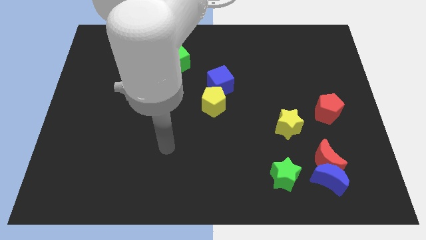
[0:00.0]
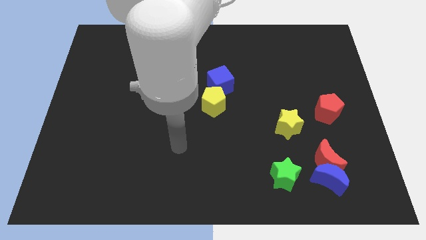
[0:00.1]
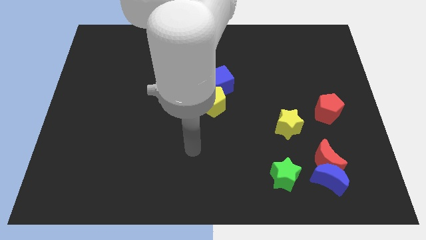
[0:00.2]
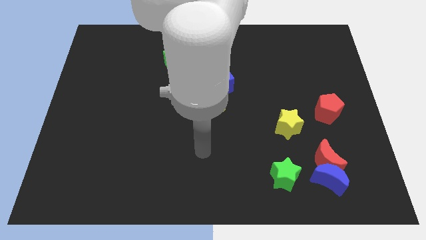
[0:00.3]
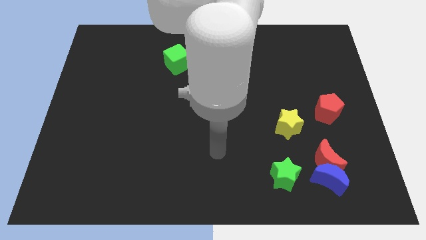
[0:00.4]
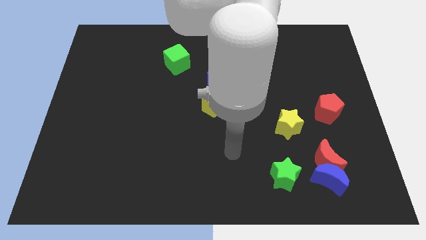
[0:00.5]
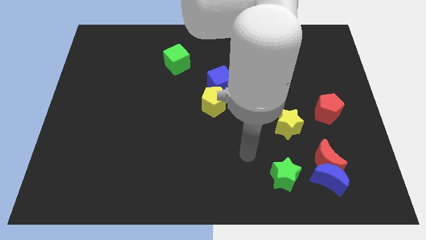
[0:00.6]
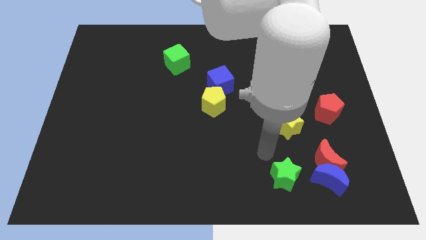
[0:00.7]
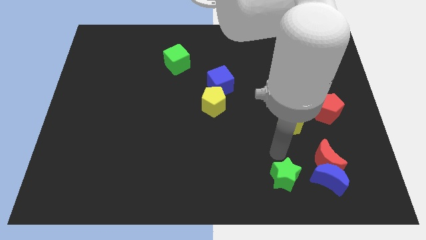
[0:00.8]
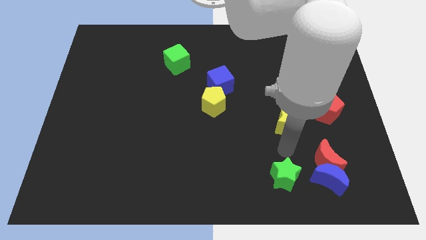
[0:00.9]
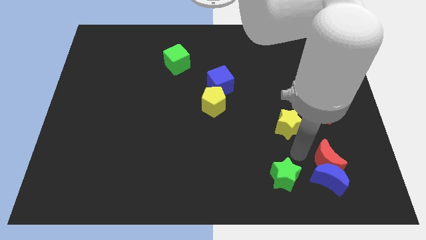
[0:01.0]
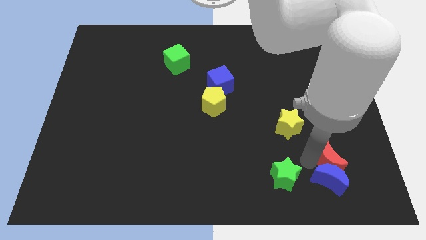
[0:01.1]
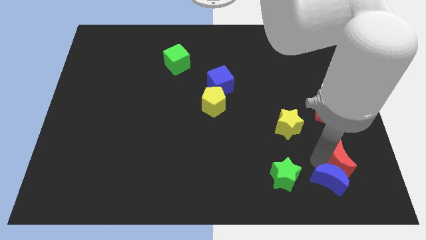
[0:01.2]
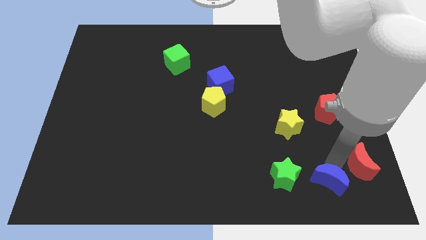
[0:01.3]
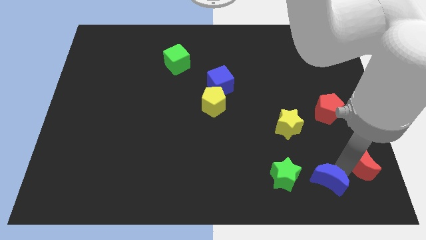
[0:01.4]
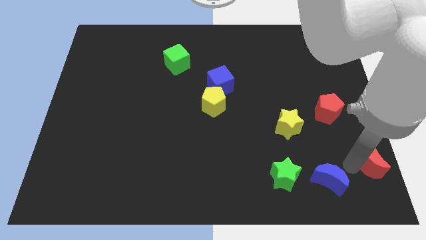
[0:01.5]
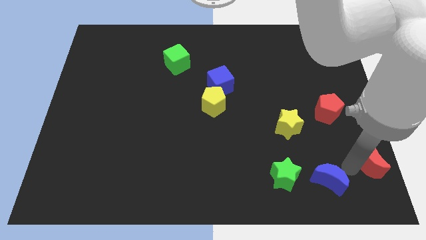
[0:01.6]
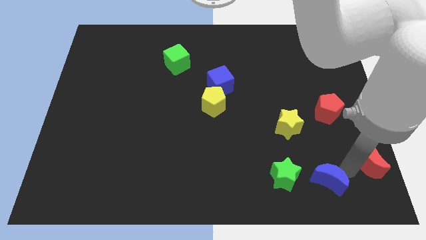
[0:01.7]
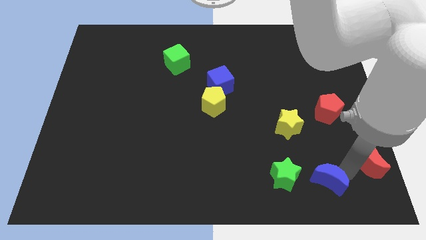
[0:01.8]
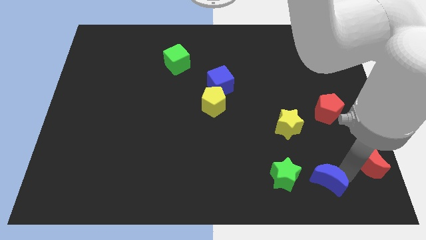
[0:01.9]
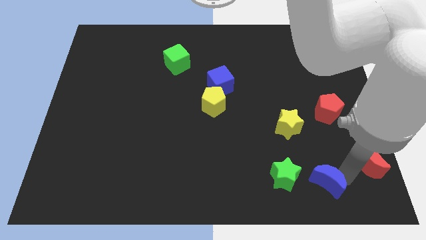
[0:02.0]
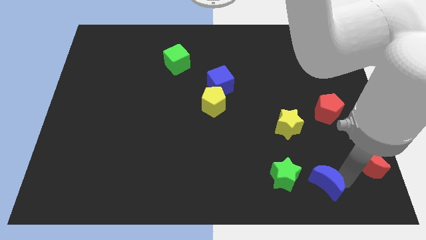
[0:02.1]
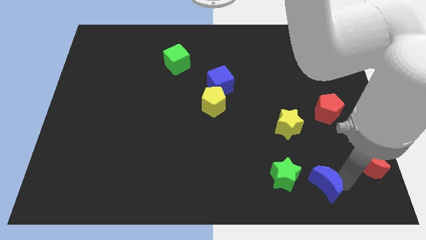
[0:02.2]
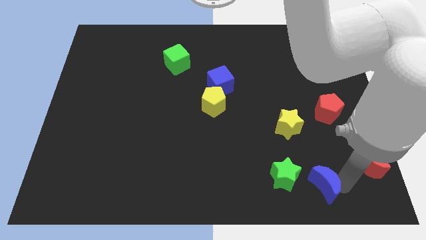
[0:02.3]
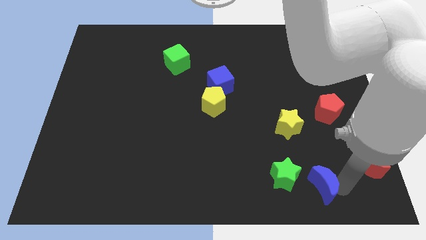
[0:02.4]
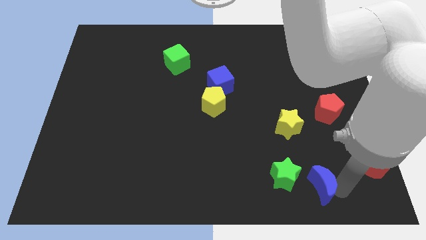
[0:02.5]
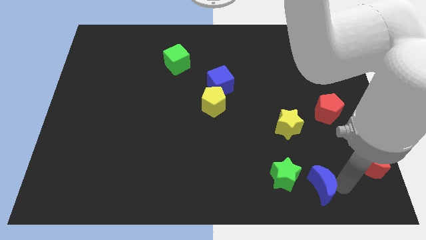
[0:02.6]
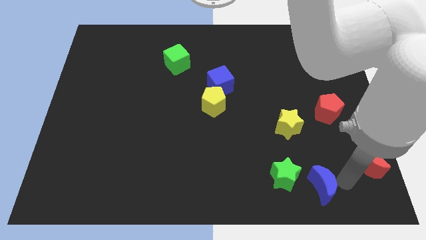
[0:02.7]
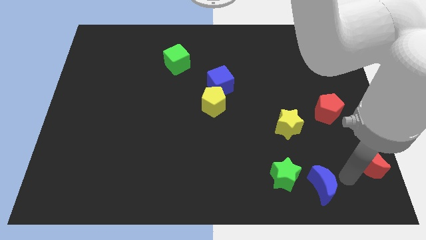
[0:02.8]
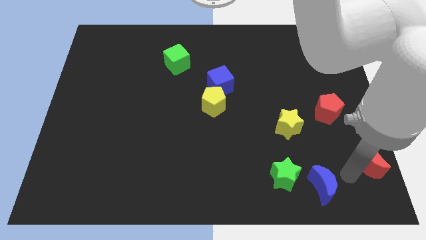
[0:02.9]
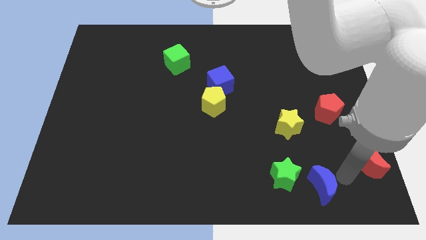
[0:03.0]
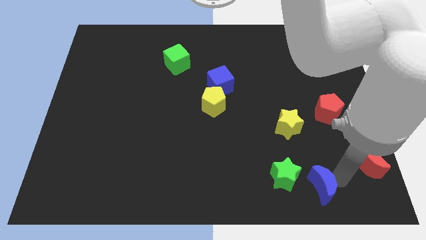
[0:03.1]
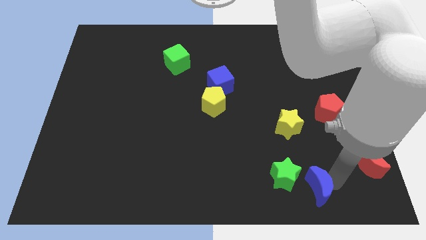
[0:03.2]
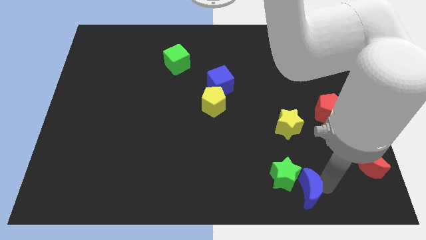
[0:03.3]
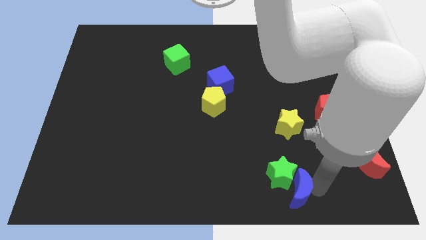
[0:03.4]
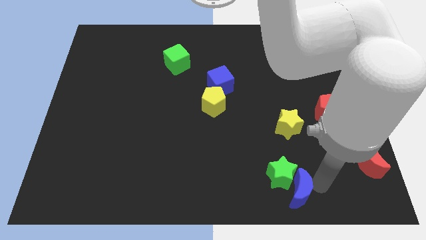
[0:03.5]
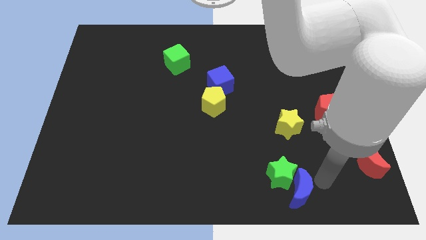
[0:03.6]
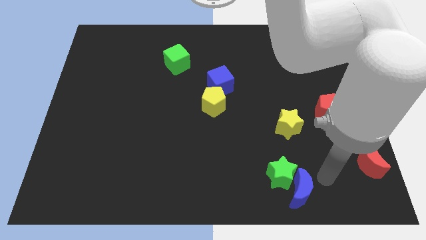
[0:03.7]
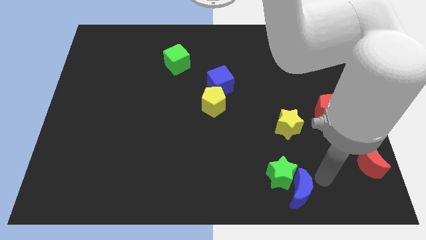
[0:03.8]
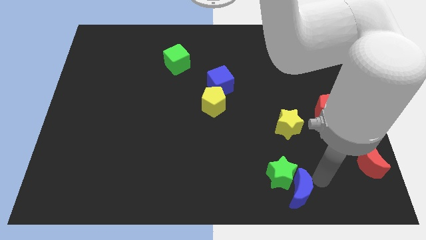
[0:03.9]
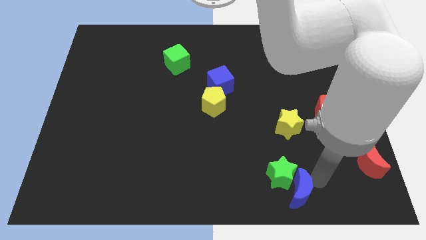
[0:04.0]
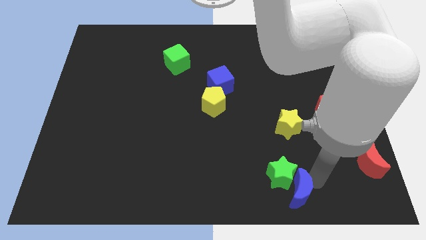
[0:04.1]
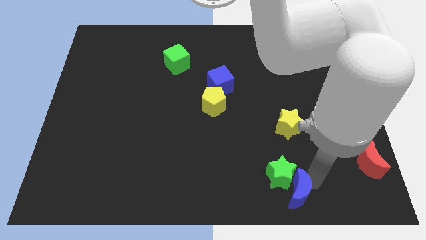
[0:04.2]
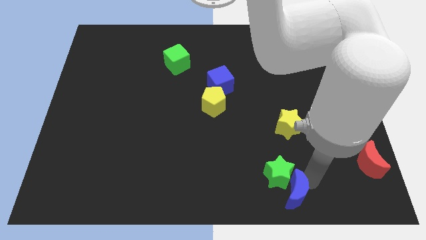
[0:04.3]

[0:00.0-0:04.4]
slightly slide the blue moon to the left

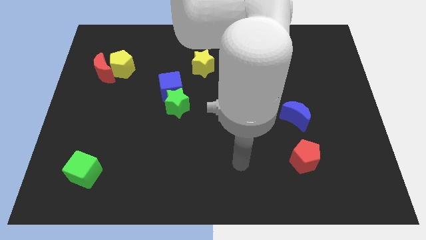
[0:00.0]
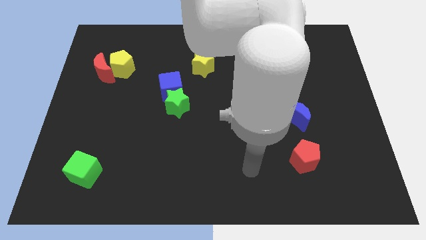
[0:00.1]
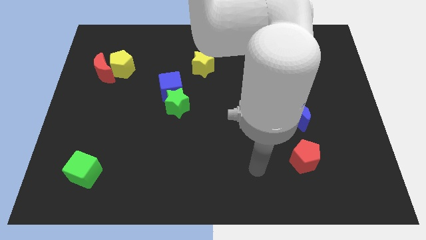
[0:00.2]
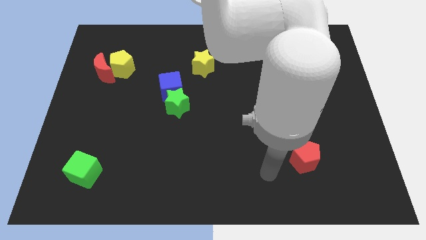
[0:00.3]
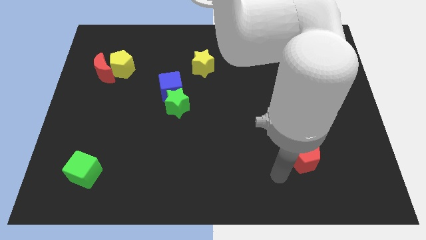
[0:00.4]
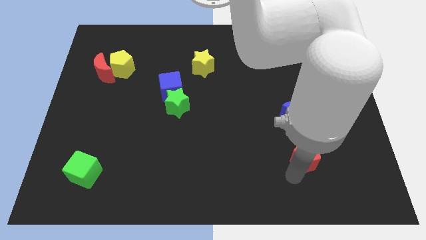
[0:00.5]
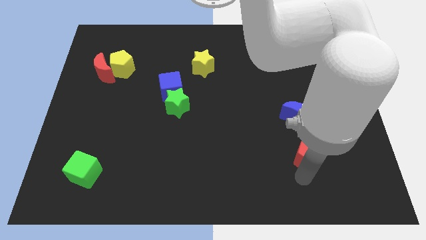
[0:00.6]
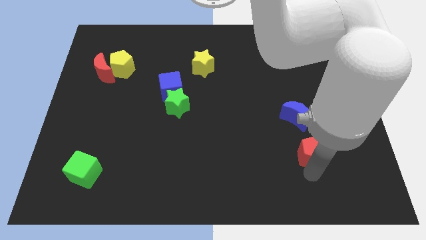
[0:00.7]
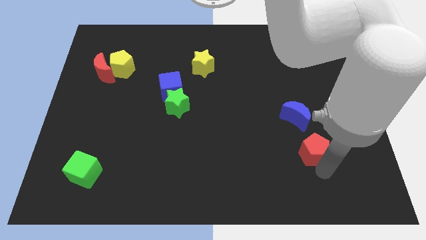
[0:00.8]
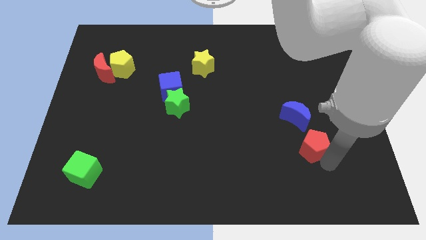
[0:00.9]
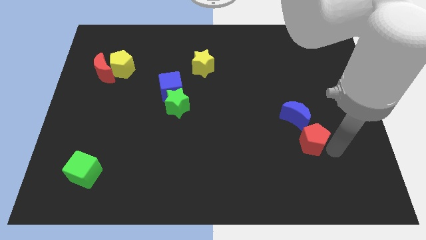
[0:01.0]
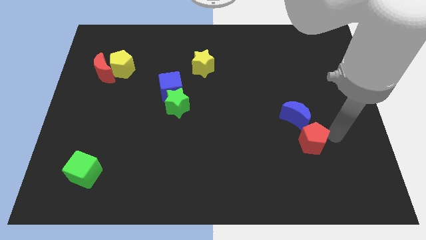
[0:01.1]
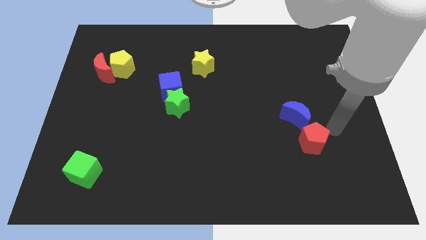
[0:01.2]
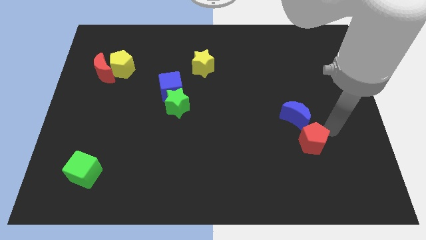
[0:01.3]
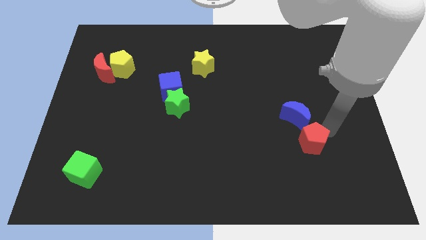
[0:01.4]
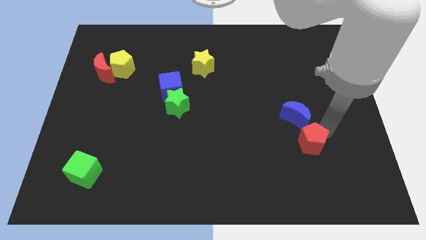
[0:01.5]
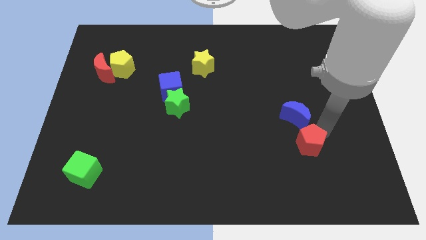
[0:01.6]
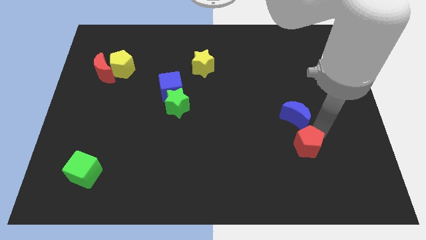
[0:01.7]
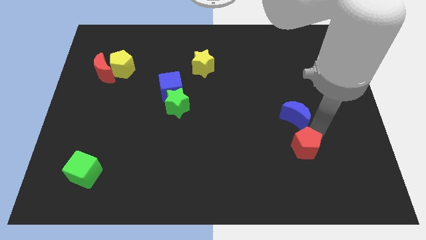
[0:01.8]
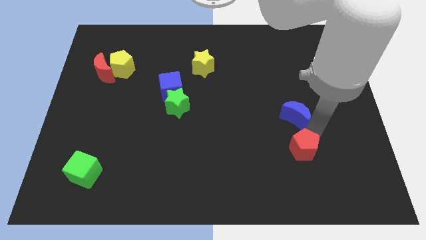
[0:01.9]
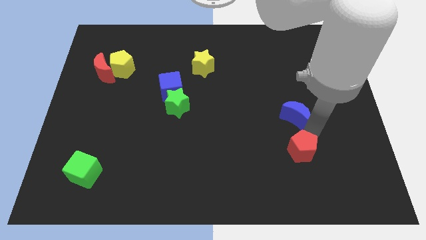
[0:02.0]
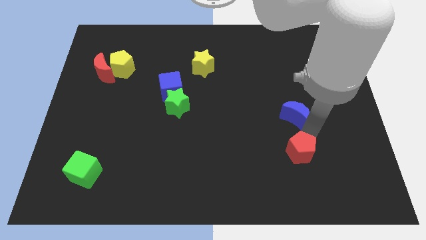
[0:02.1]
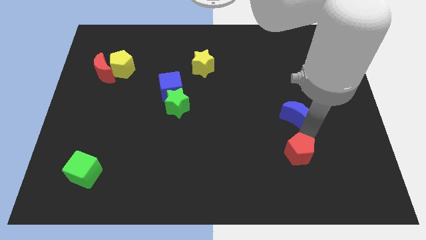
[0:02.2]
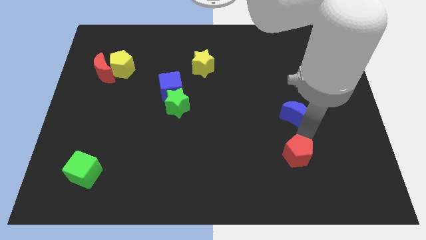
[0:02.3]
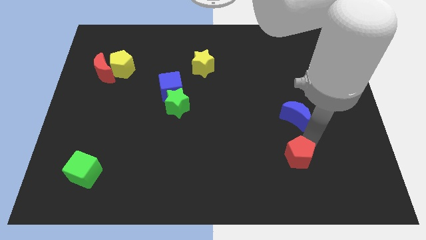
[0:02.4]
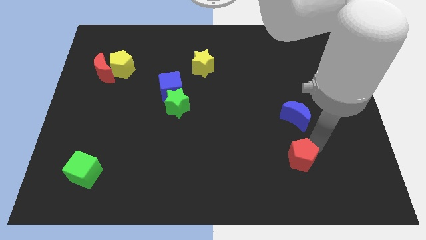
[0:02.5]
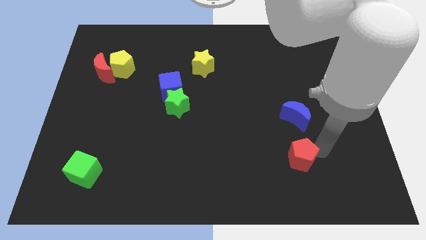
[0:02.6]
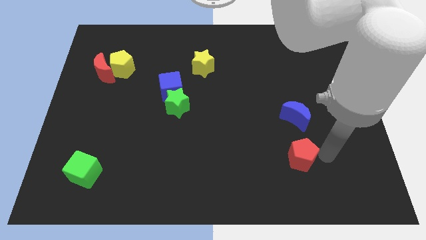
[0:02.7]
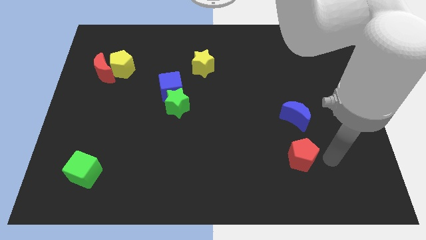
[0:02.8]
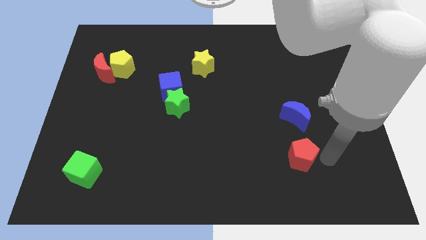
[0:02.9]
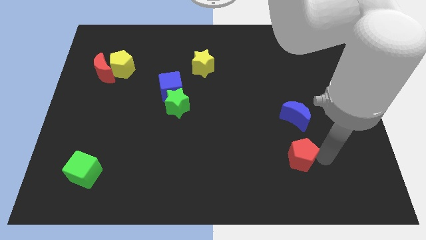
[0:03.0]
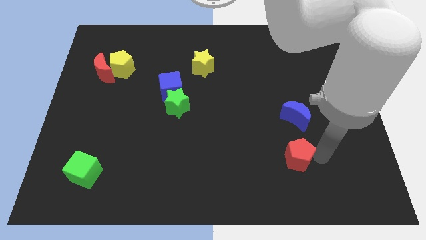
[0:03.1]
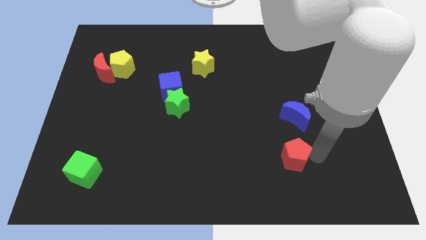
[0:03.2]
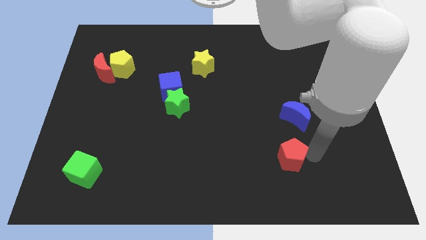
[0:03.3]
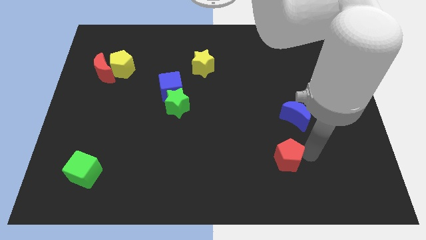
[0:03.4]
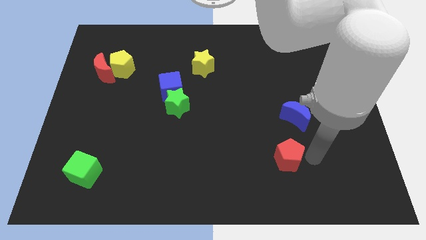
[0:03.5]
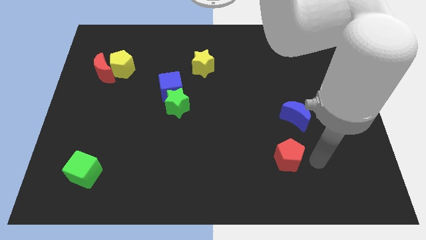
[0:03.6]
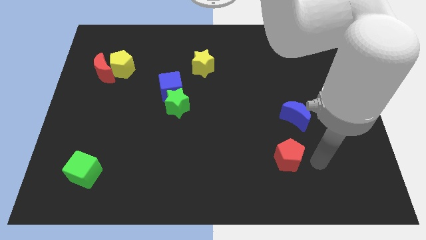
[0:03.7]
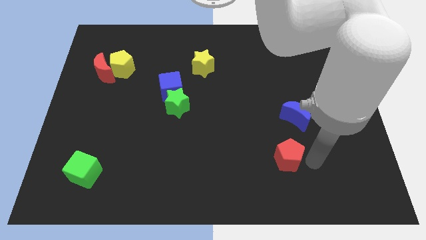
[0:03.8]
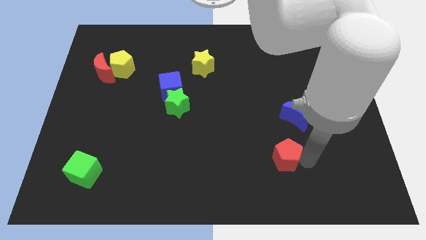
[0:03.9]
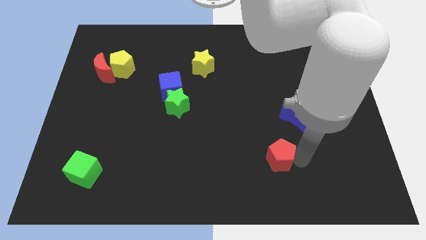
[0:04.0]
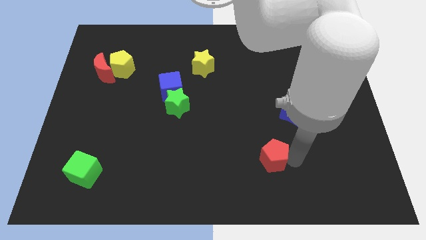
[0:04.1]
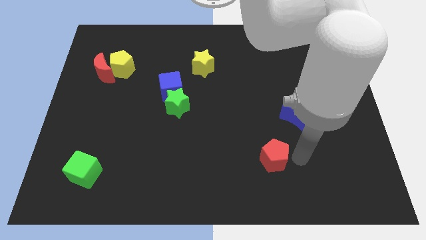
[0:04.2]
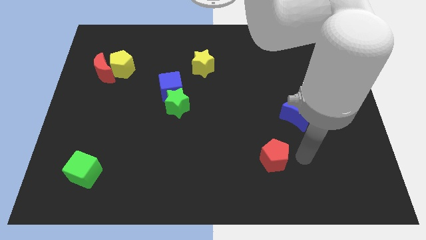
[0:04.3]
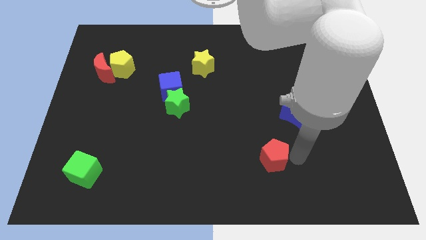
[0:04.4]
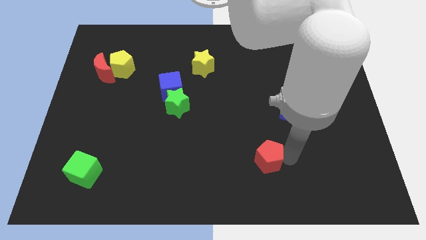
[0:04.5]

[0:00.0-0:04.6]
slightly move the red pentagon left
